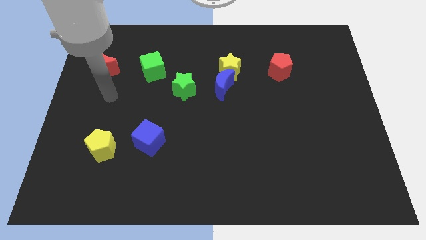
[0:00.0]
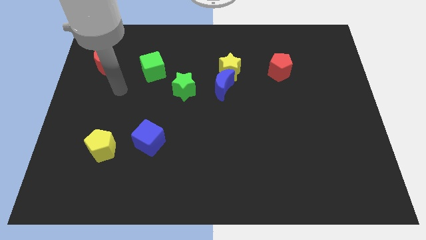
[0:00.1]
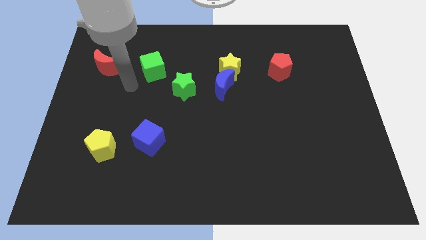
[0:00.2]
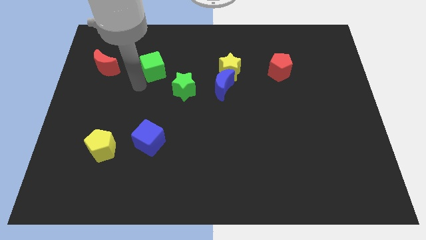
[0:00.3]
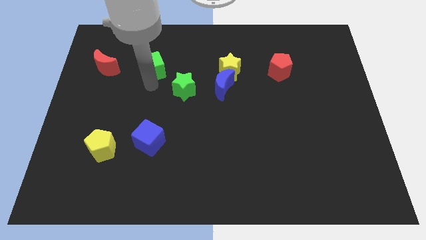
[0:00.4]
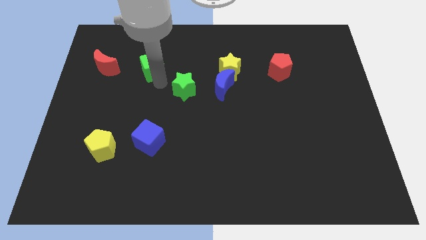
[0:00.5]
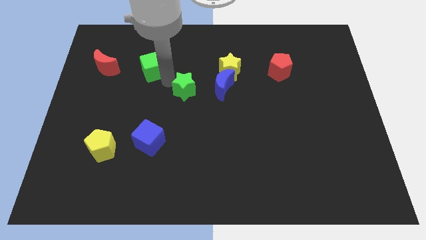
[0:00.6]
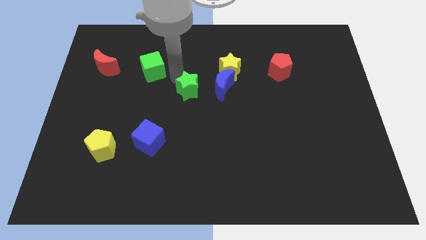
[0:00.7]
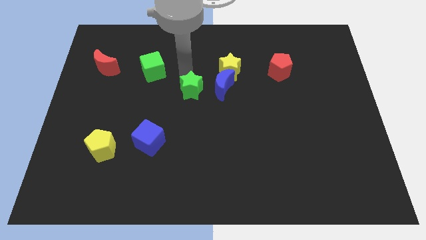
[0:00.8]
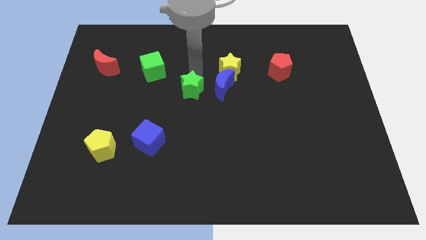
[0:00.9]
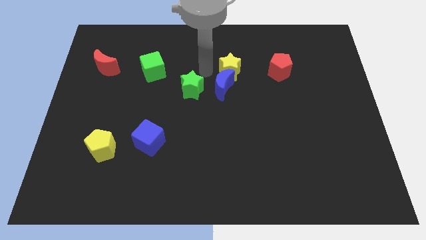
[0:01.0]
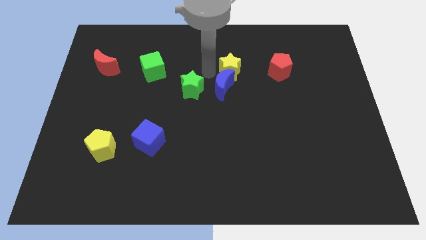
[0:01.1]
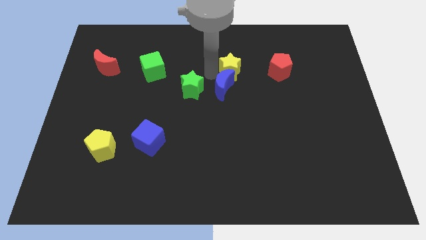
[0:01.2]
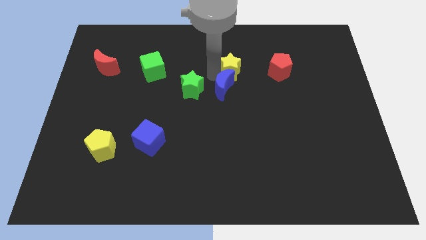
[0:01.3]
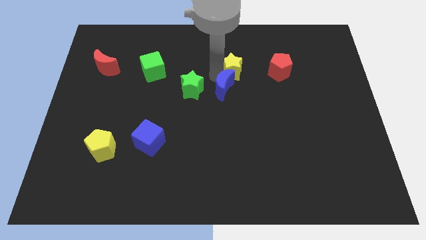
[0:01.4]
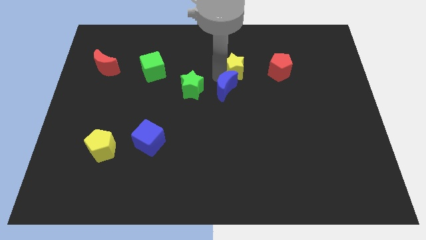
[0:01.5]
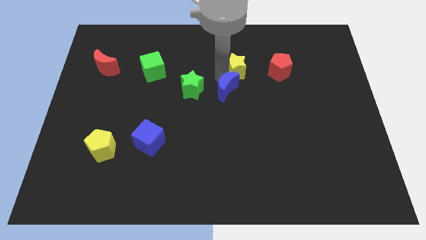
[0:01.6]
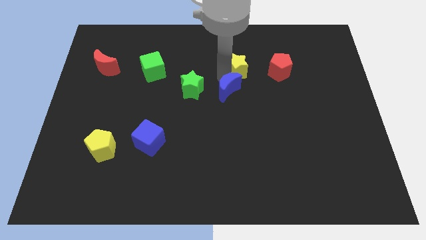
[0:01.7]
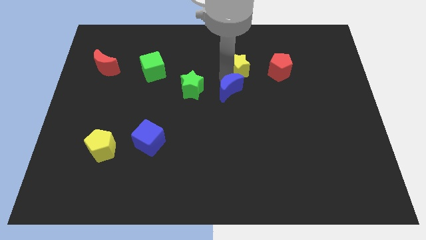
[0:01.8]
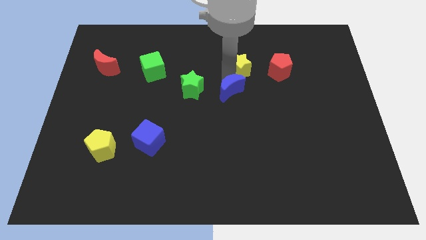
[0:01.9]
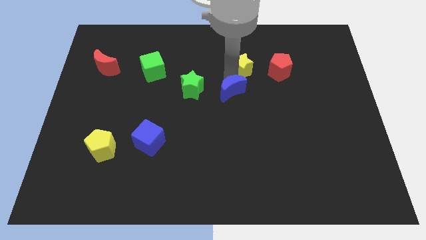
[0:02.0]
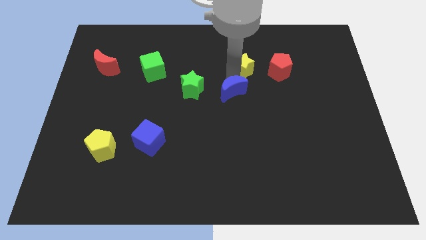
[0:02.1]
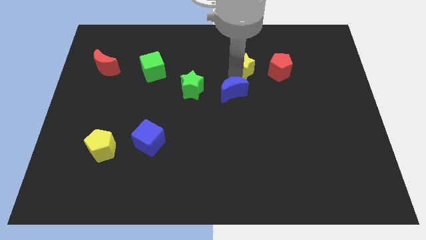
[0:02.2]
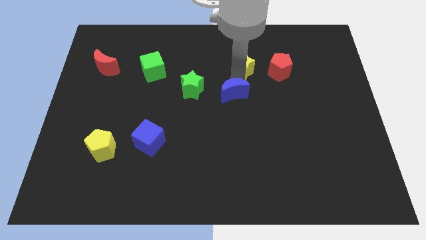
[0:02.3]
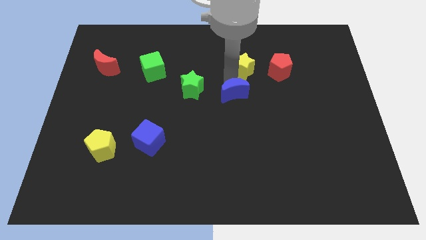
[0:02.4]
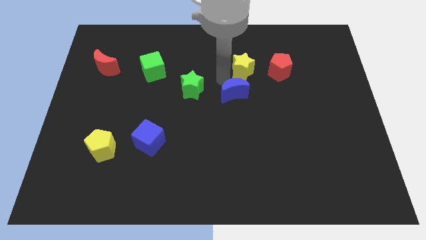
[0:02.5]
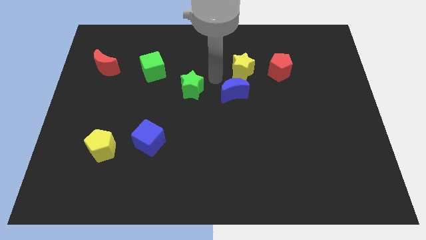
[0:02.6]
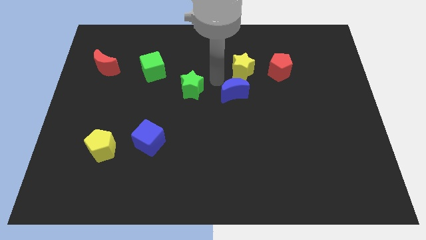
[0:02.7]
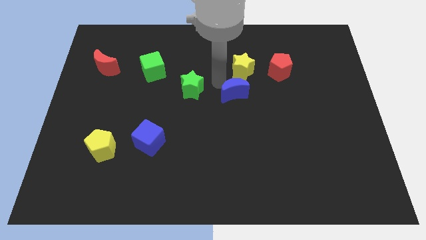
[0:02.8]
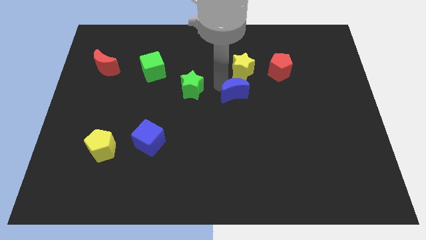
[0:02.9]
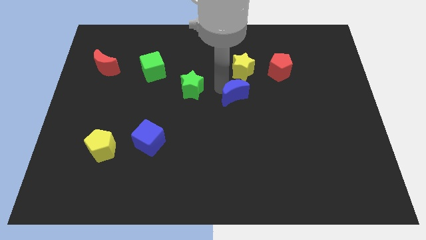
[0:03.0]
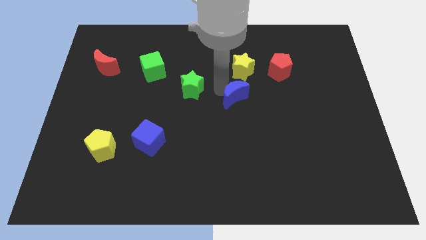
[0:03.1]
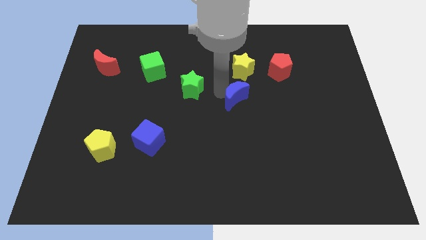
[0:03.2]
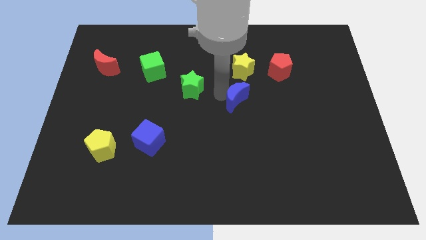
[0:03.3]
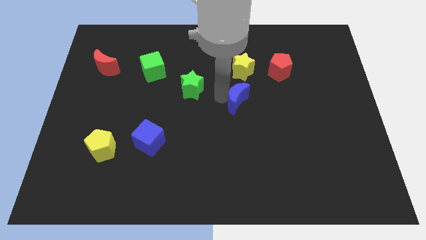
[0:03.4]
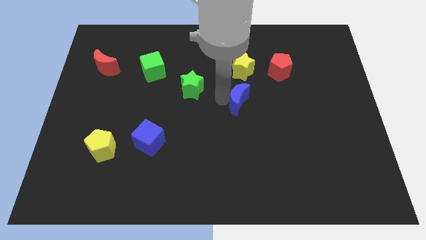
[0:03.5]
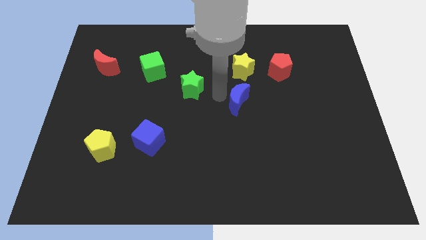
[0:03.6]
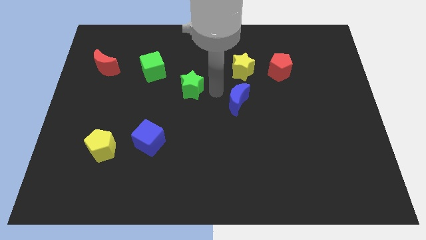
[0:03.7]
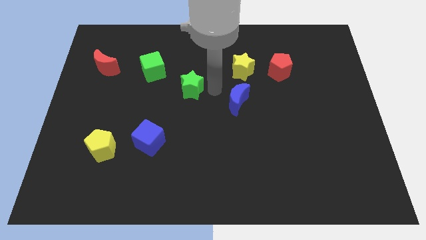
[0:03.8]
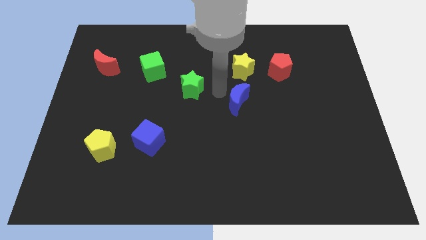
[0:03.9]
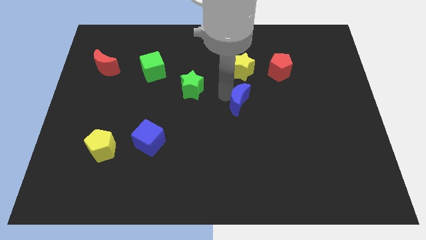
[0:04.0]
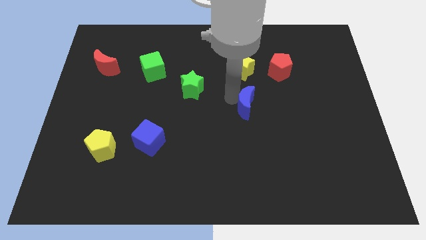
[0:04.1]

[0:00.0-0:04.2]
push the blue moon slightly diagonally downwards and right

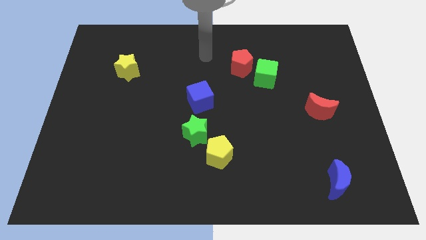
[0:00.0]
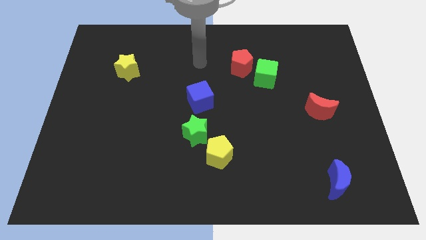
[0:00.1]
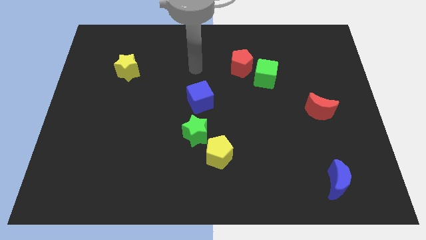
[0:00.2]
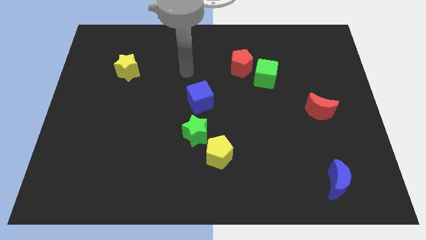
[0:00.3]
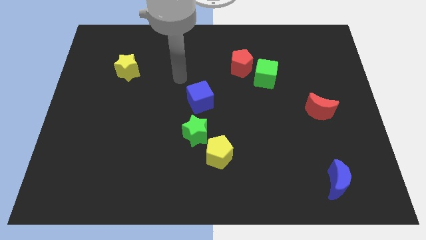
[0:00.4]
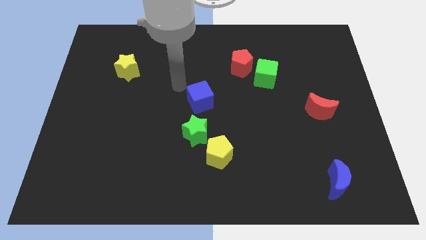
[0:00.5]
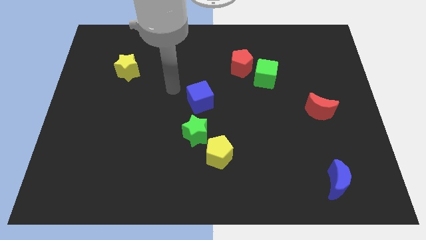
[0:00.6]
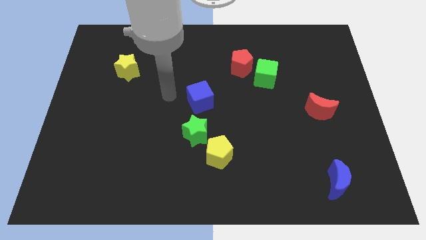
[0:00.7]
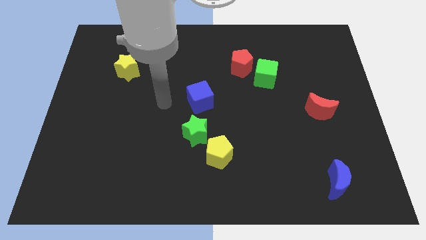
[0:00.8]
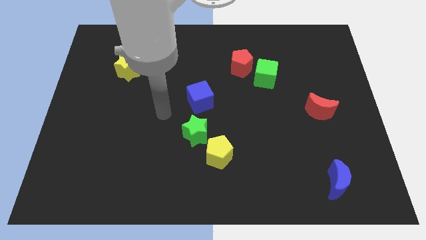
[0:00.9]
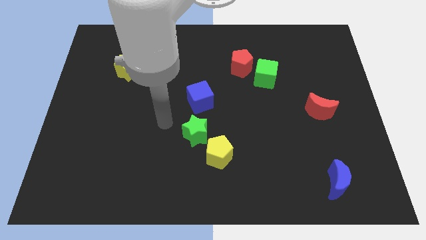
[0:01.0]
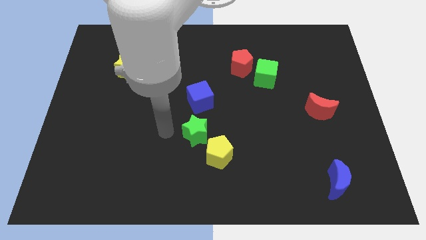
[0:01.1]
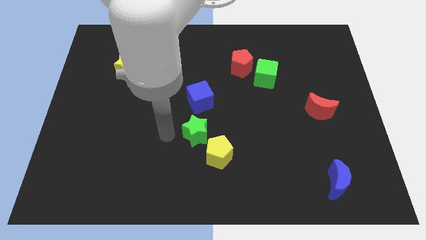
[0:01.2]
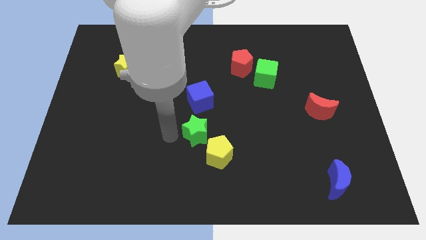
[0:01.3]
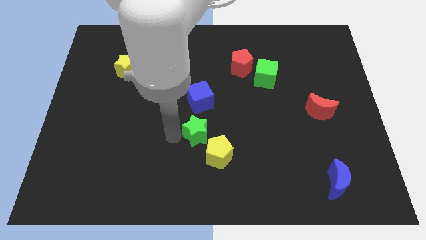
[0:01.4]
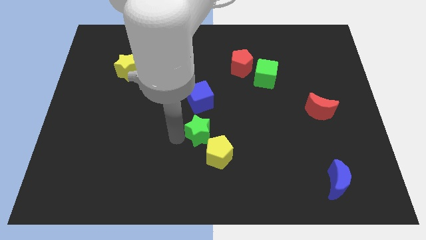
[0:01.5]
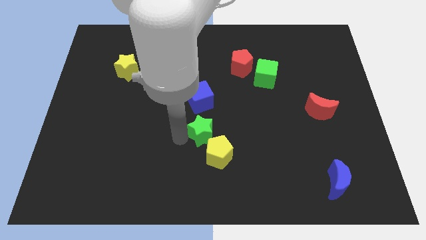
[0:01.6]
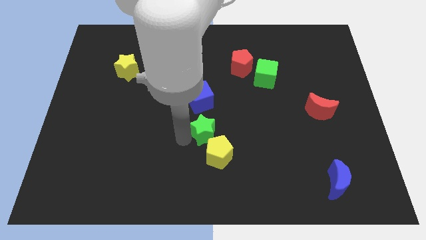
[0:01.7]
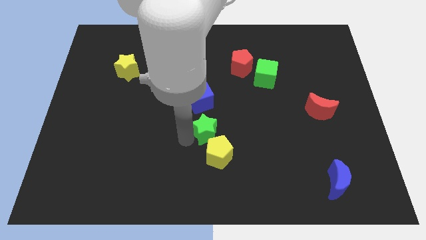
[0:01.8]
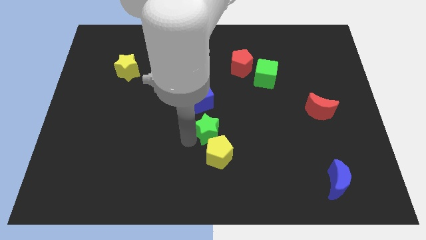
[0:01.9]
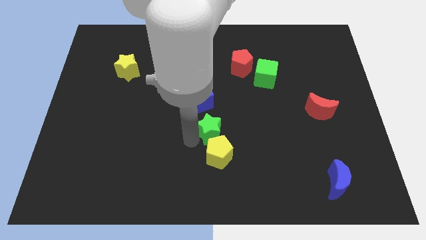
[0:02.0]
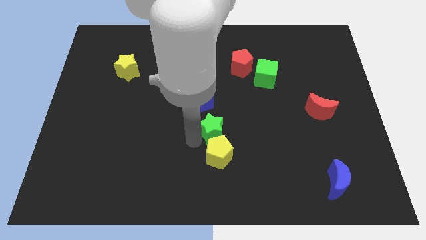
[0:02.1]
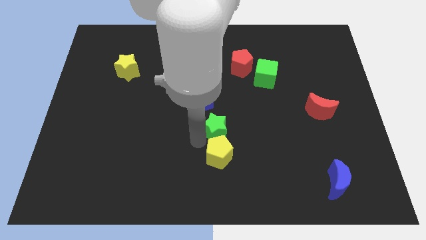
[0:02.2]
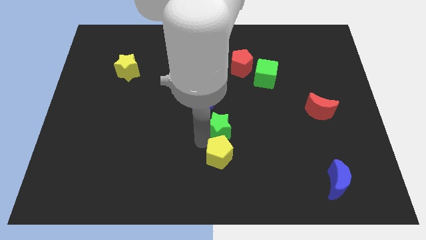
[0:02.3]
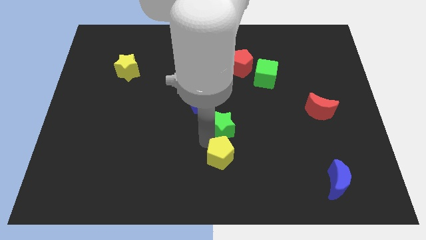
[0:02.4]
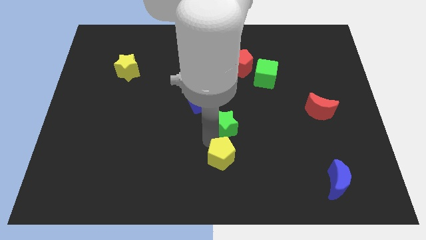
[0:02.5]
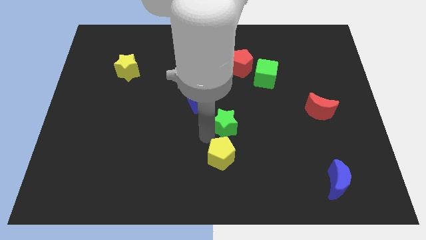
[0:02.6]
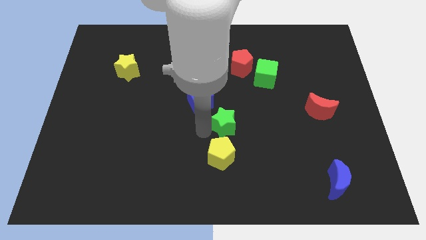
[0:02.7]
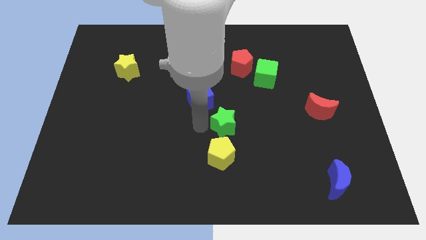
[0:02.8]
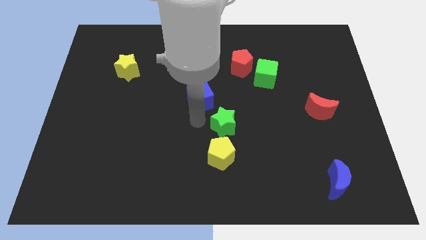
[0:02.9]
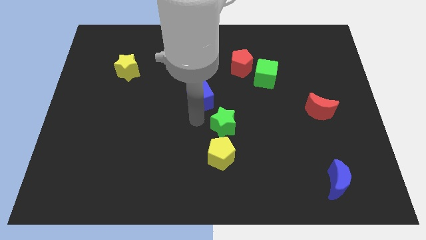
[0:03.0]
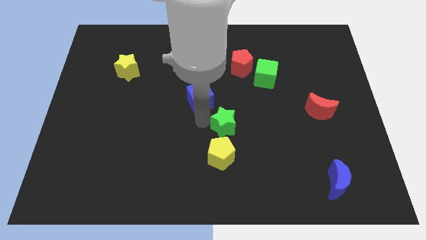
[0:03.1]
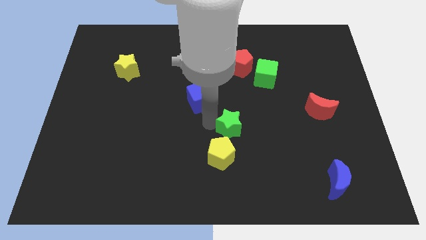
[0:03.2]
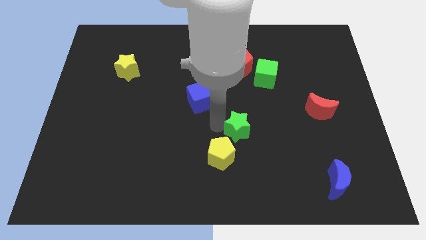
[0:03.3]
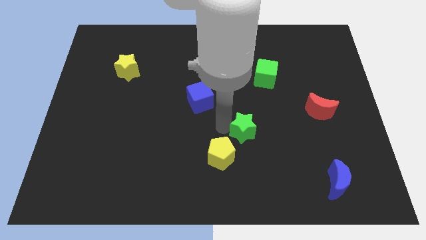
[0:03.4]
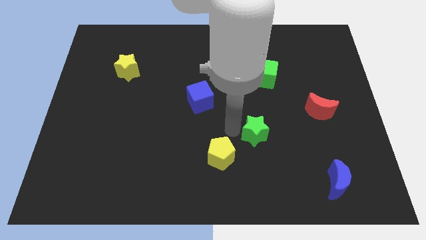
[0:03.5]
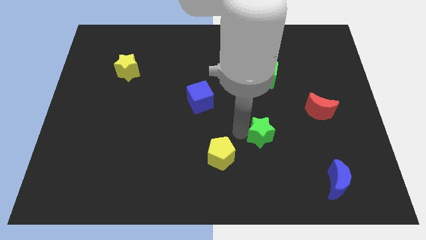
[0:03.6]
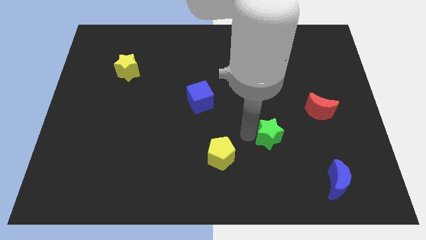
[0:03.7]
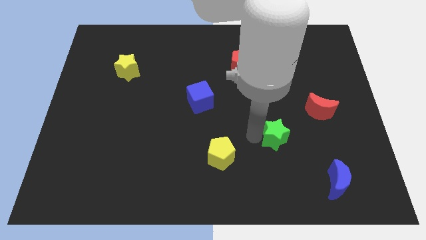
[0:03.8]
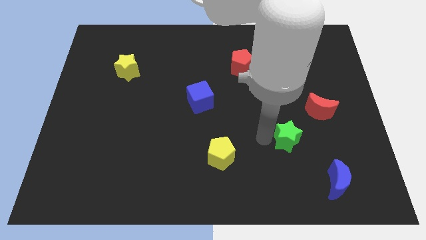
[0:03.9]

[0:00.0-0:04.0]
push the green star right
